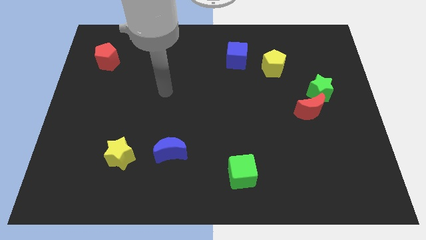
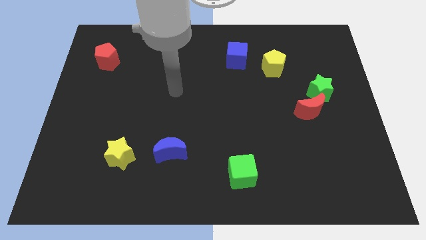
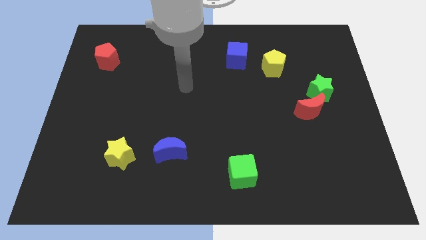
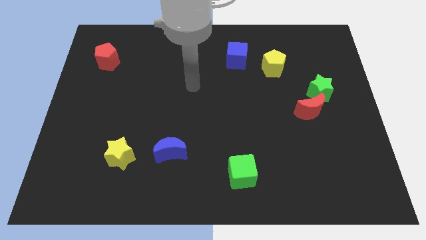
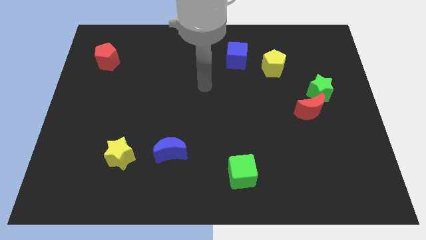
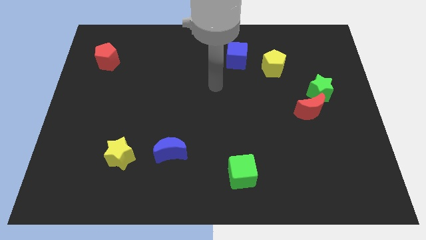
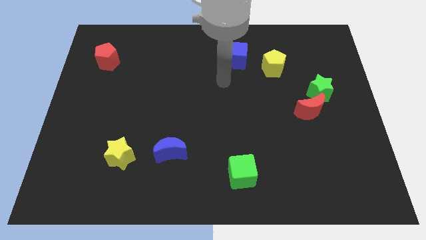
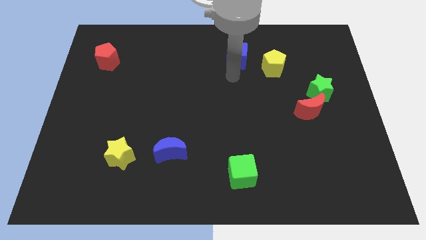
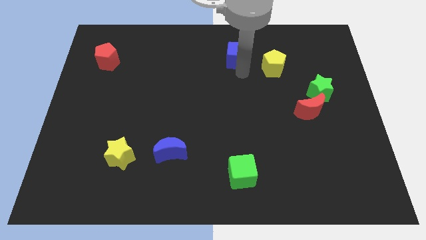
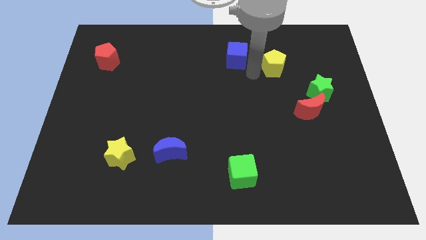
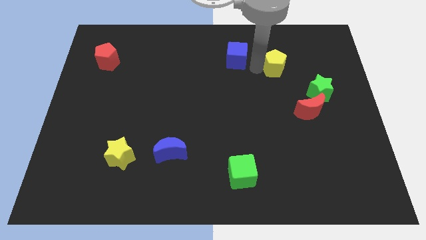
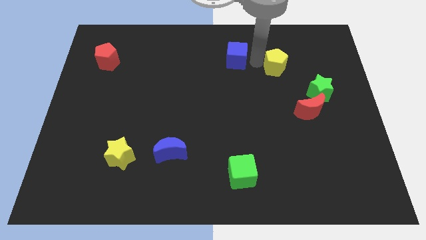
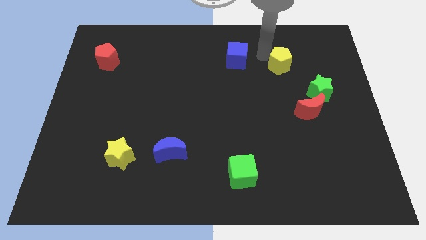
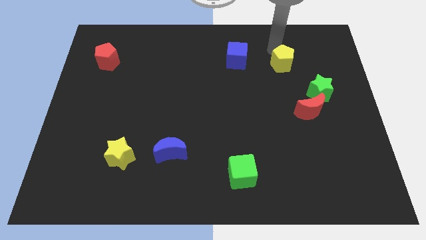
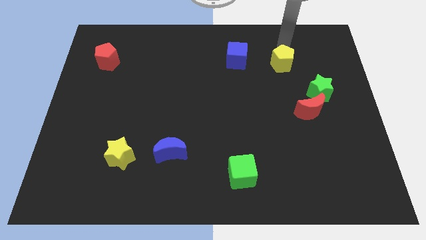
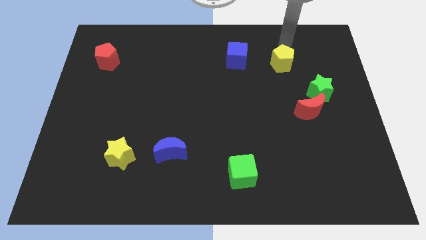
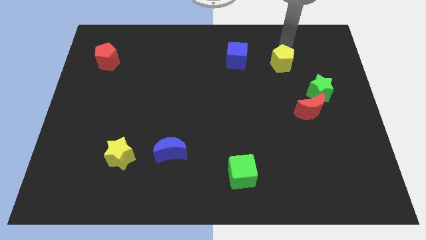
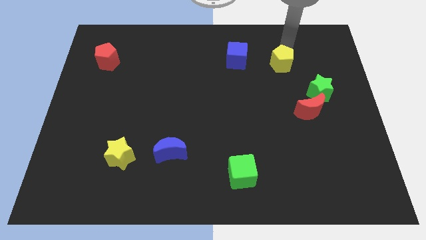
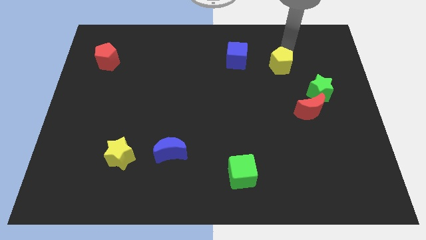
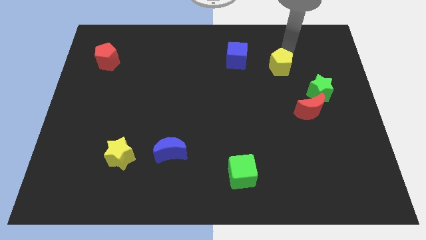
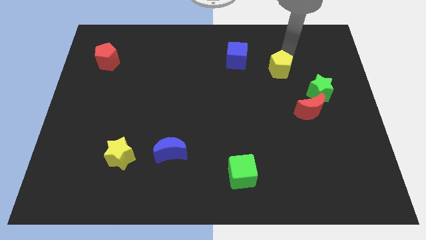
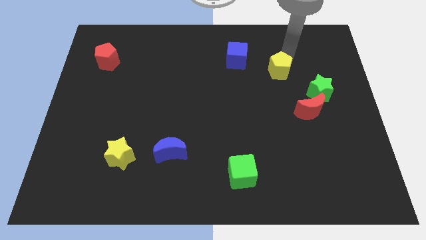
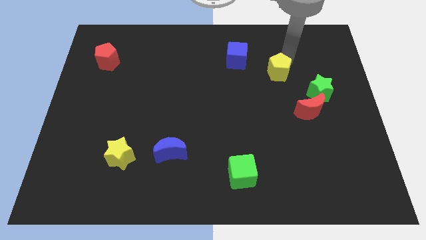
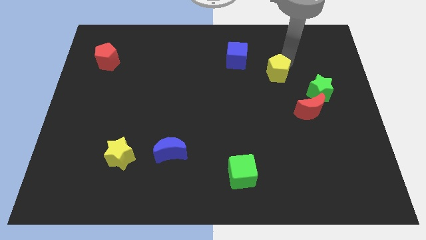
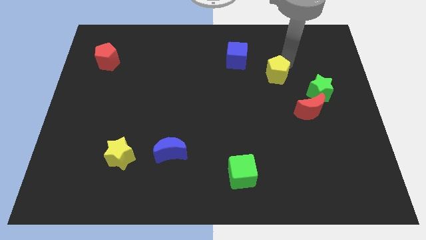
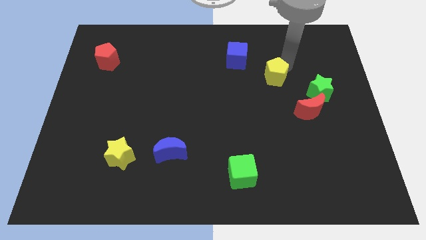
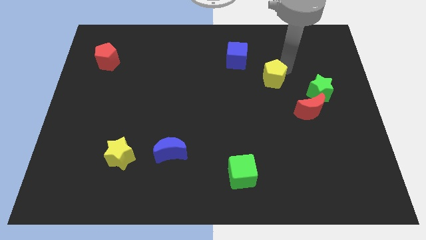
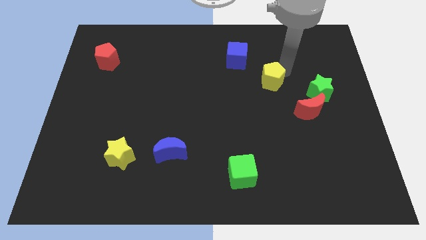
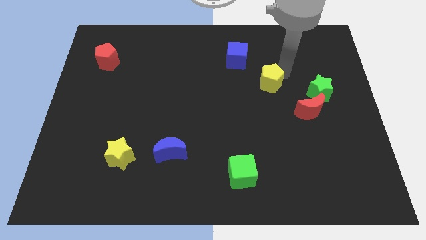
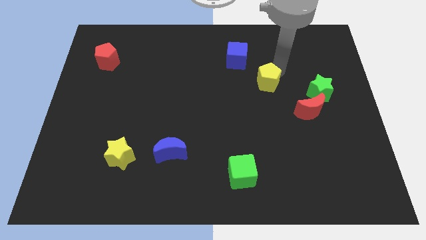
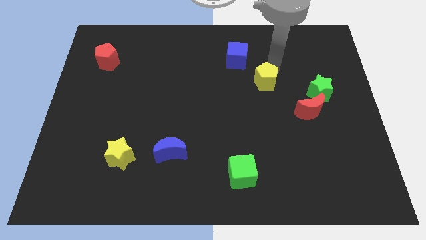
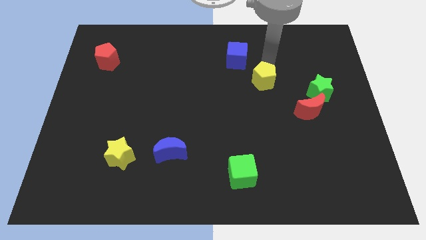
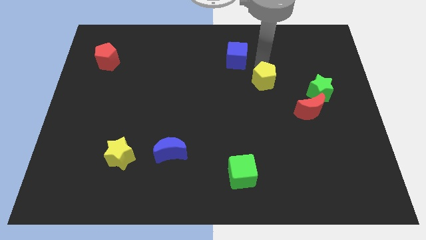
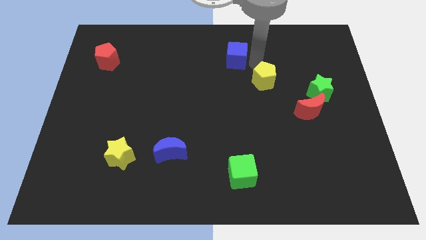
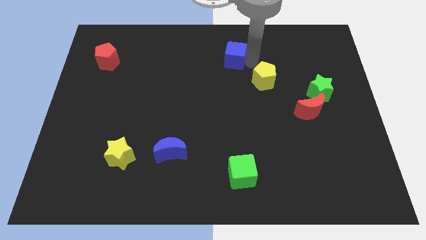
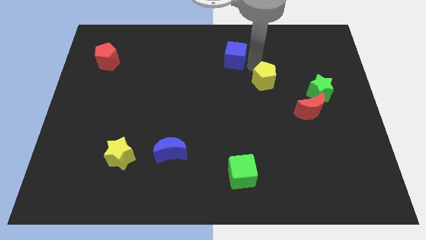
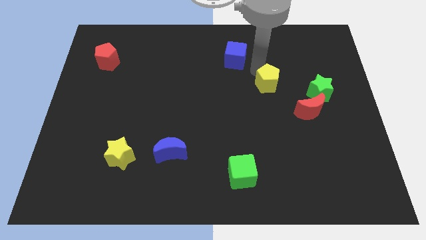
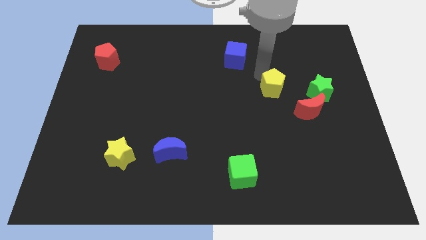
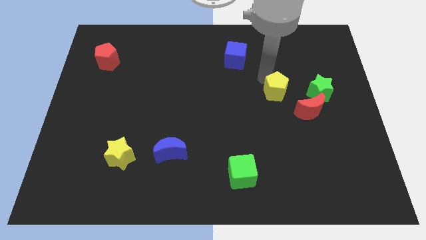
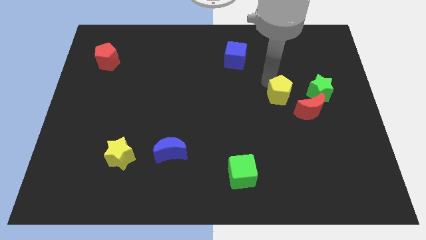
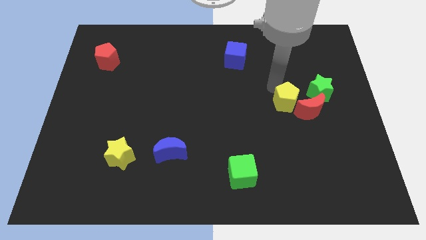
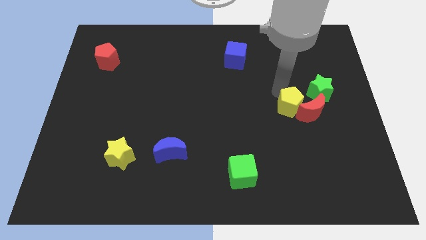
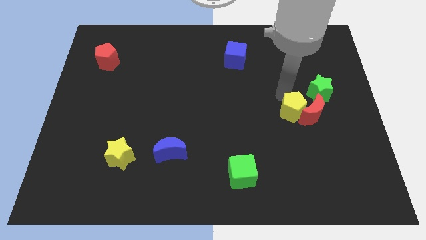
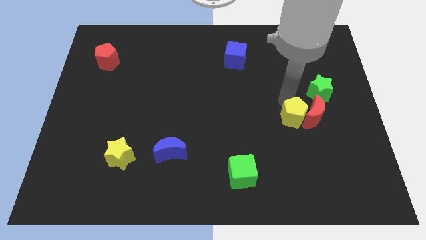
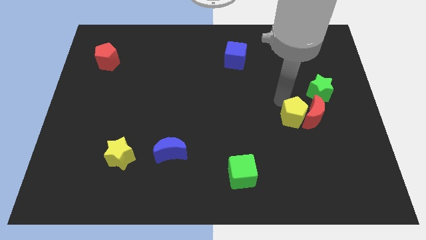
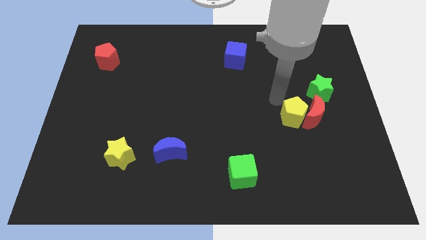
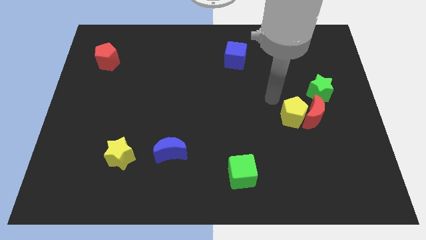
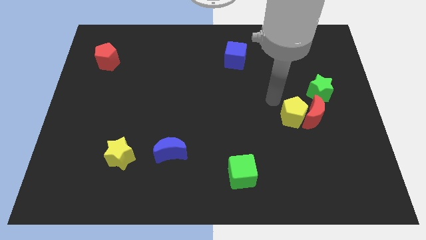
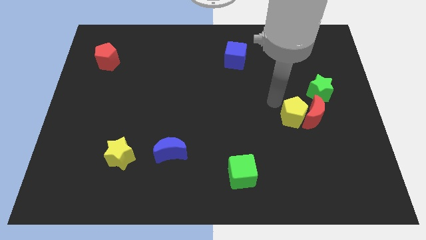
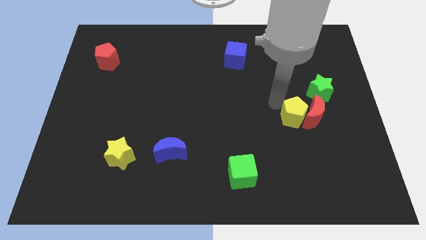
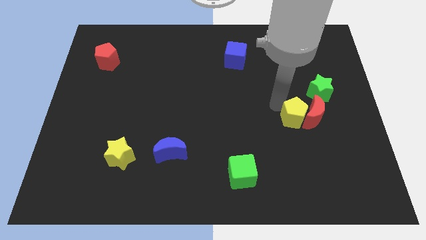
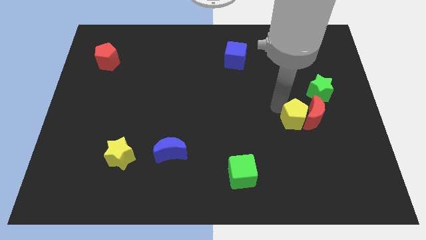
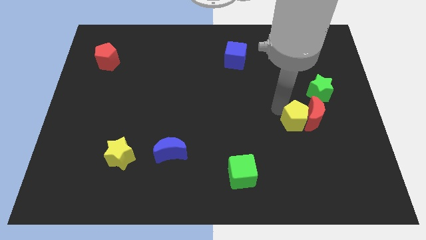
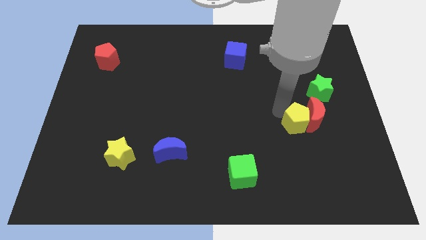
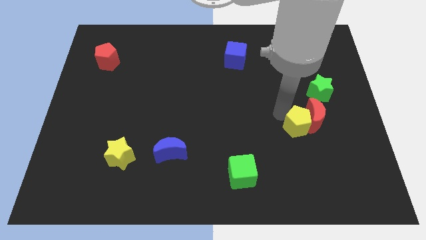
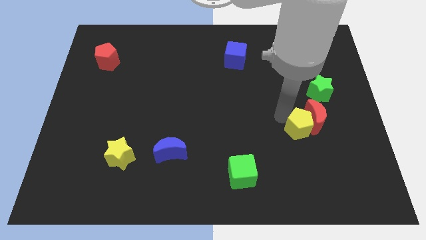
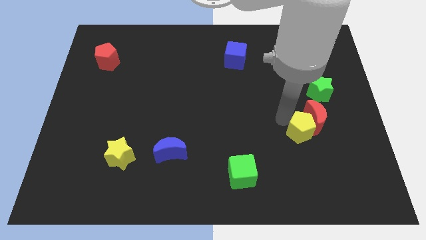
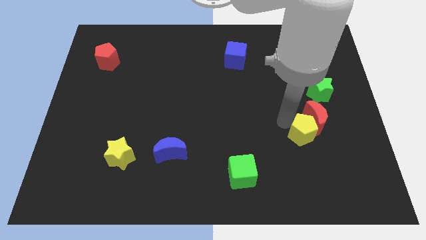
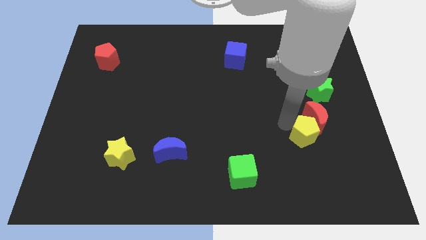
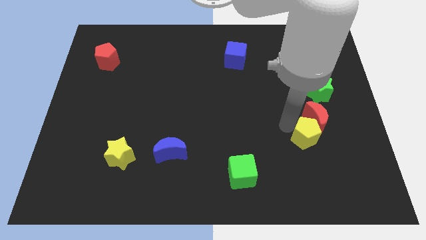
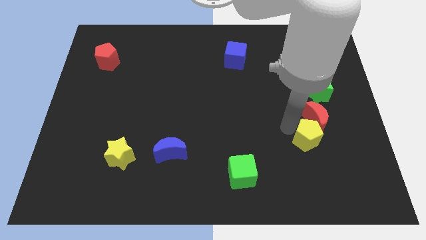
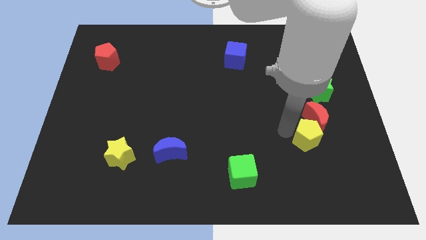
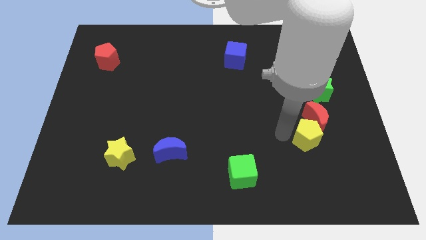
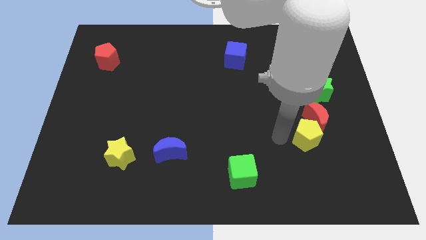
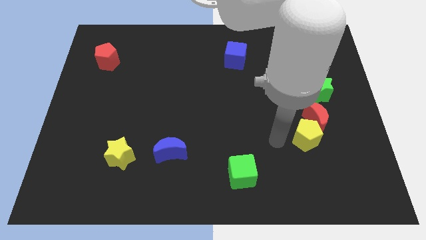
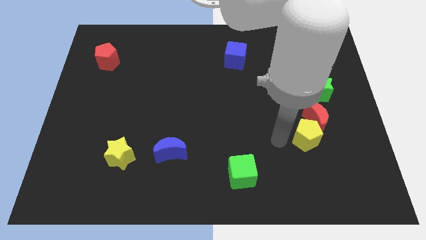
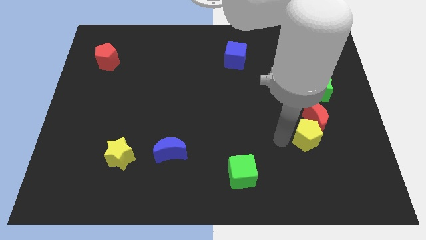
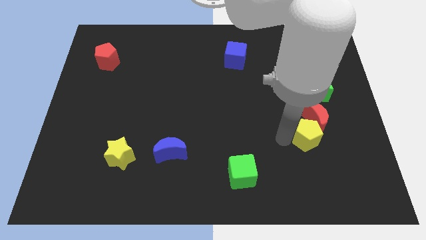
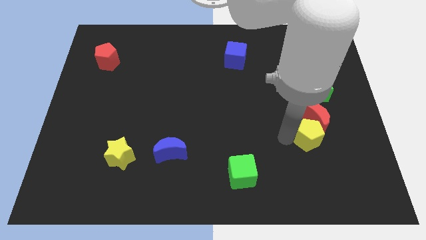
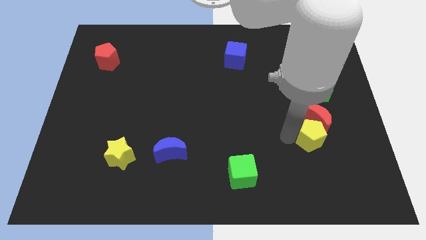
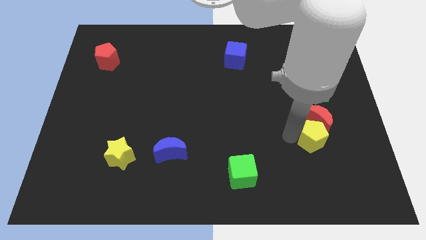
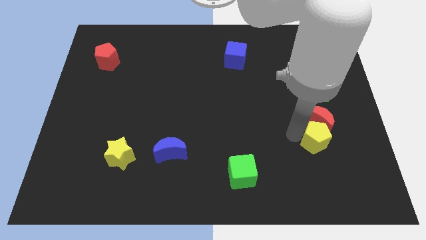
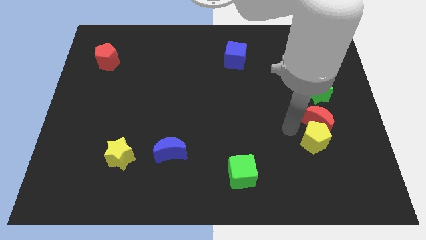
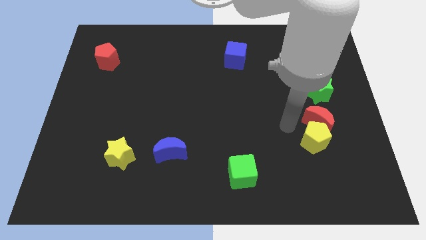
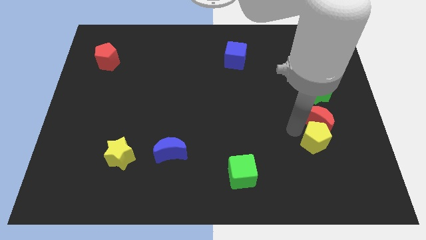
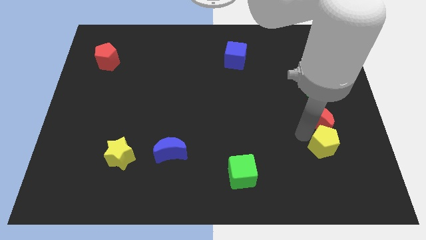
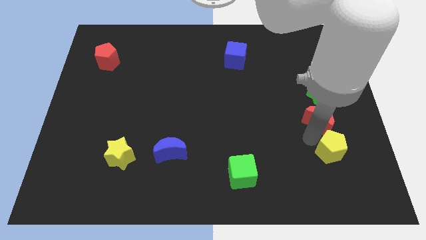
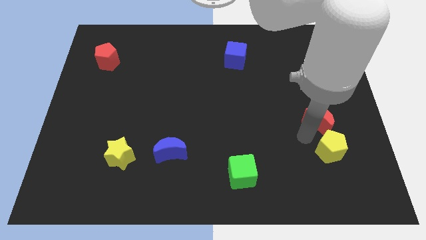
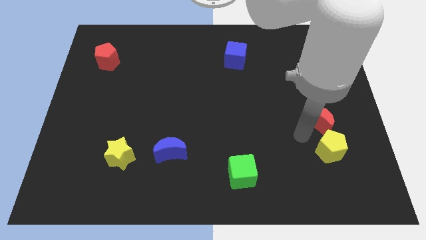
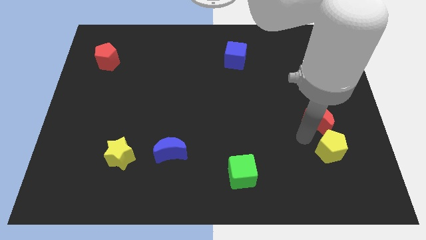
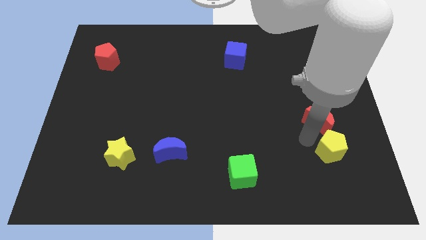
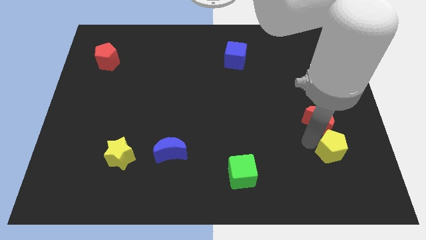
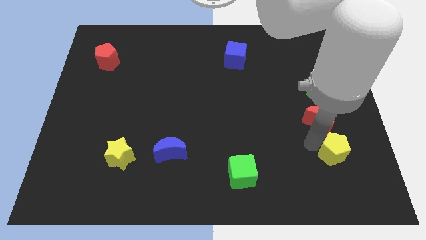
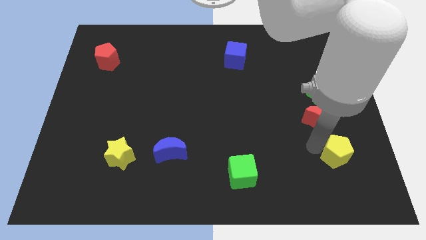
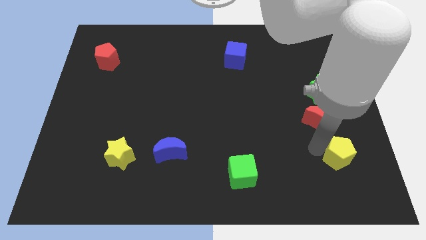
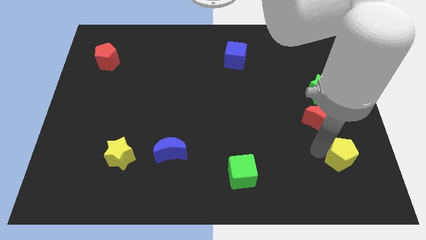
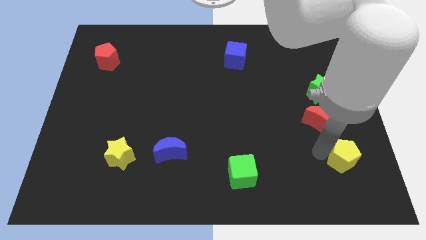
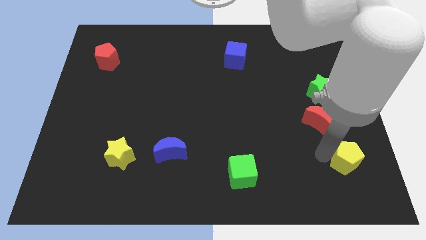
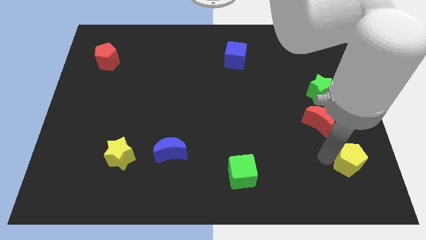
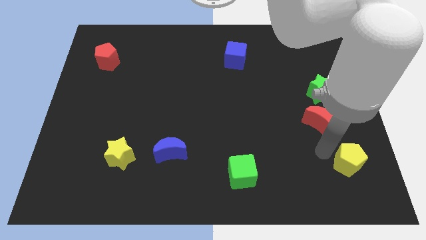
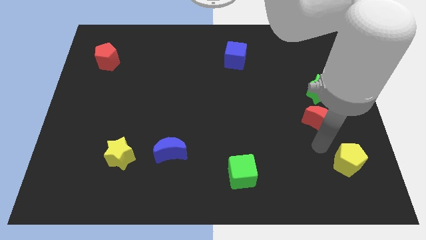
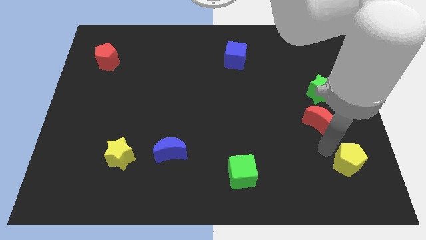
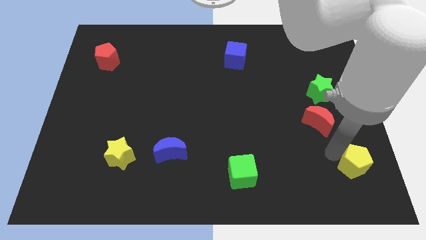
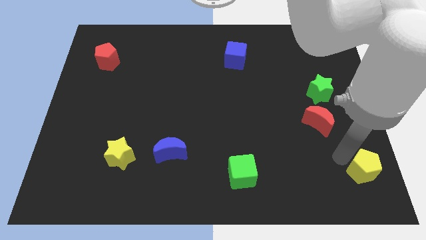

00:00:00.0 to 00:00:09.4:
move the yellow pentagon to the bottom right corner
